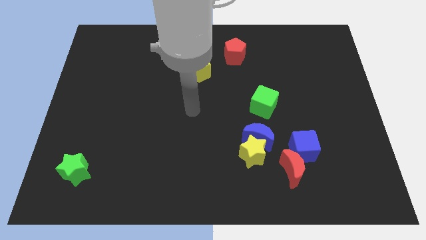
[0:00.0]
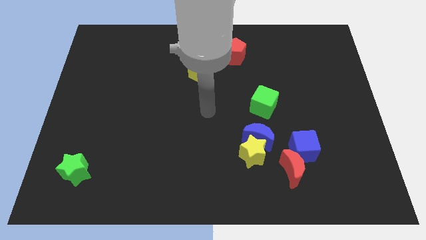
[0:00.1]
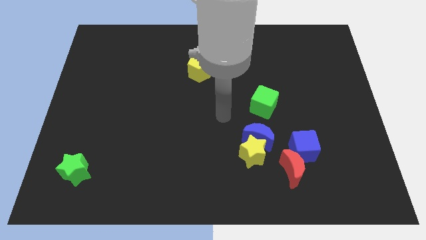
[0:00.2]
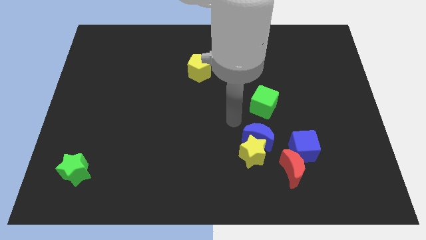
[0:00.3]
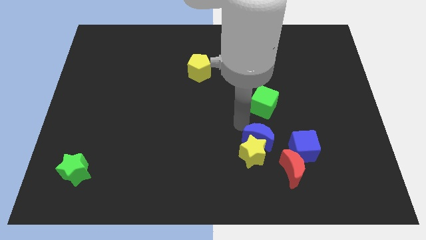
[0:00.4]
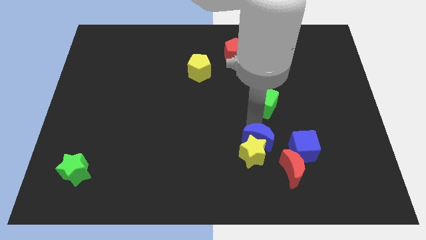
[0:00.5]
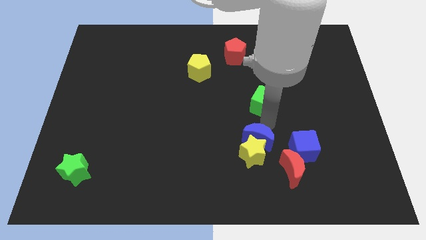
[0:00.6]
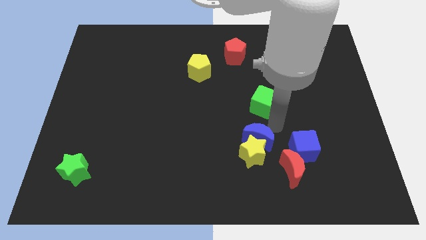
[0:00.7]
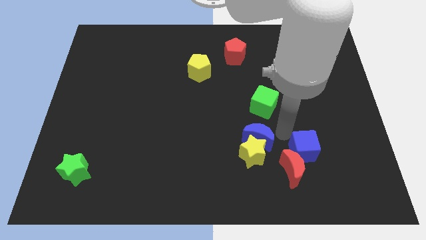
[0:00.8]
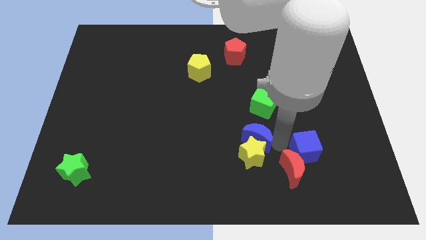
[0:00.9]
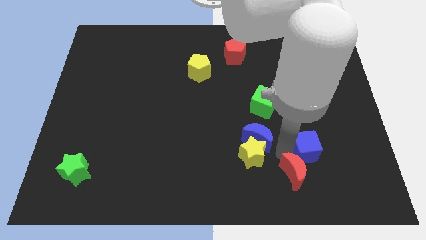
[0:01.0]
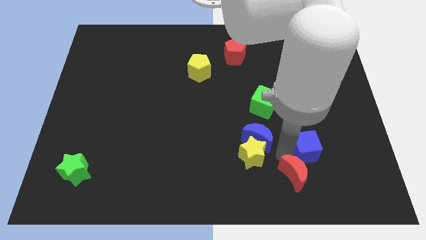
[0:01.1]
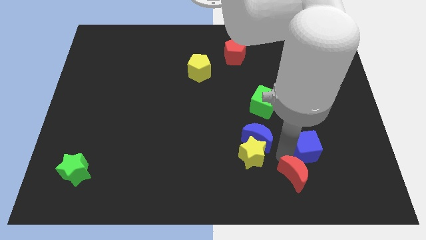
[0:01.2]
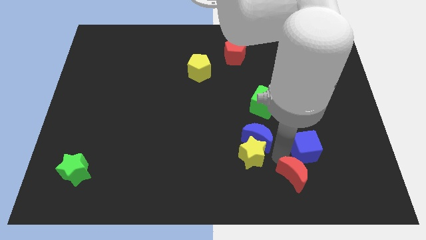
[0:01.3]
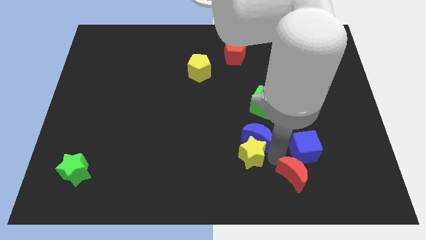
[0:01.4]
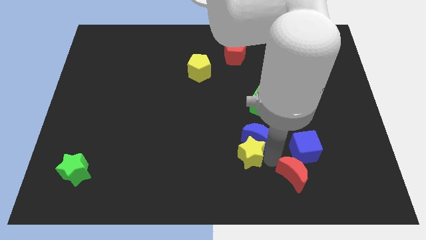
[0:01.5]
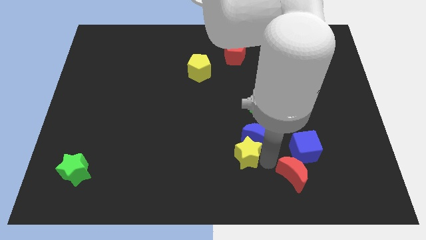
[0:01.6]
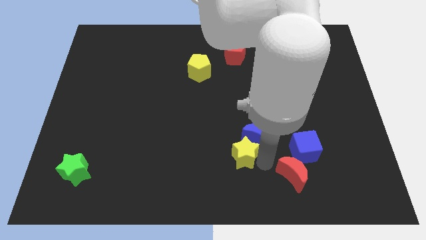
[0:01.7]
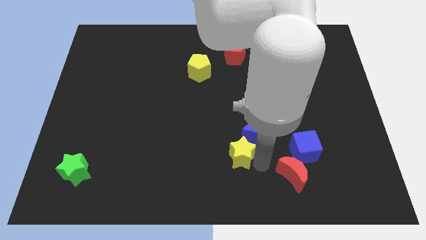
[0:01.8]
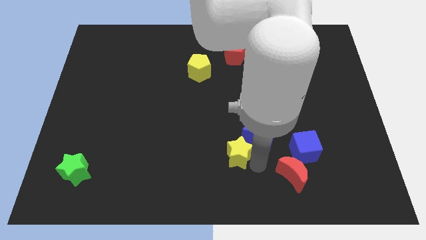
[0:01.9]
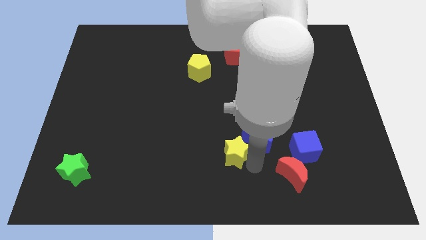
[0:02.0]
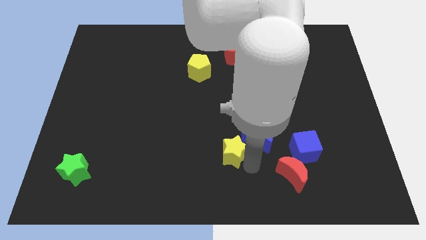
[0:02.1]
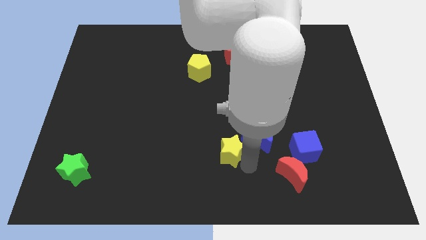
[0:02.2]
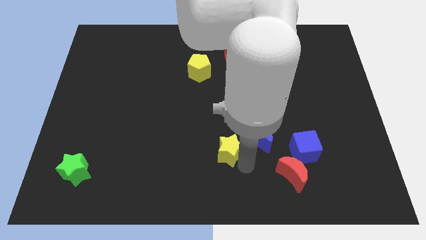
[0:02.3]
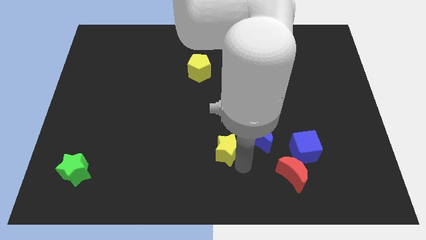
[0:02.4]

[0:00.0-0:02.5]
pull the yellow star apart from the blue moon and red moon

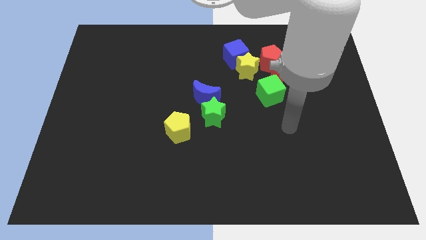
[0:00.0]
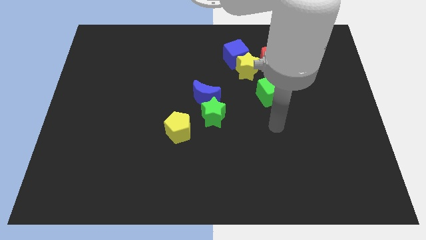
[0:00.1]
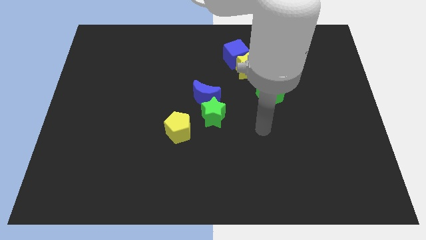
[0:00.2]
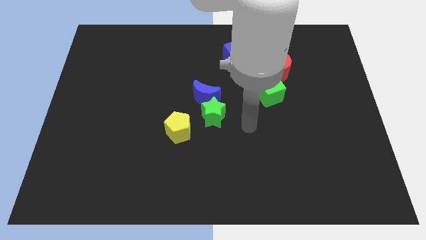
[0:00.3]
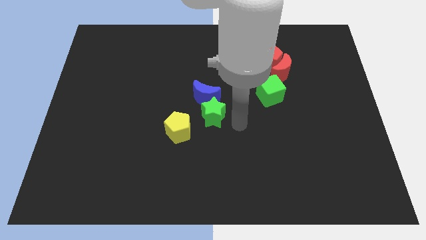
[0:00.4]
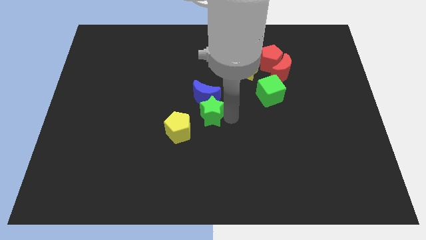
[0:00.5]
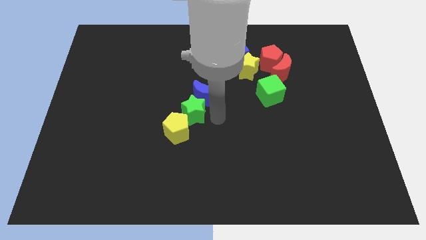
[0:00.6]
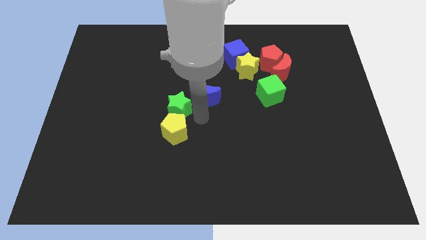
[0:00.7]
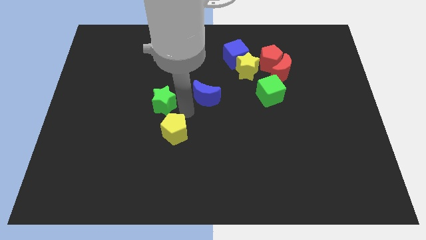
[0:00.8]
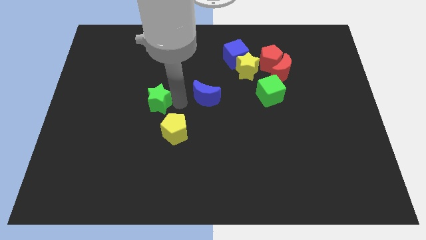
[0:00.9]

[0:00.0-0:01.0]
separate the blue moon from the green star

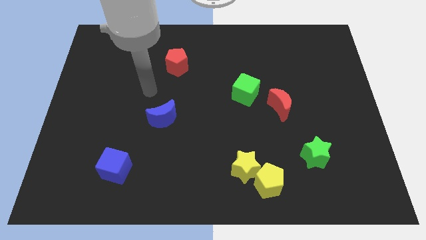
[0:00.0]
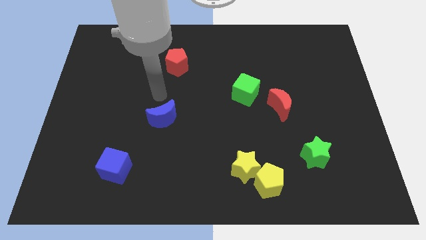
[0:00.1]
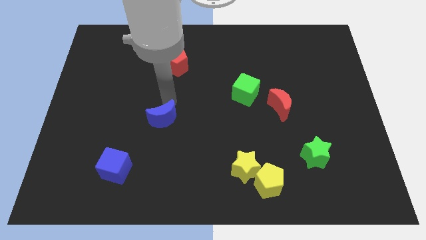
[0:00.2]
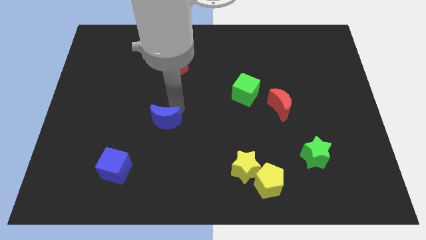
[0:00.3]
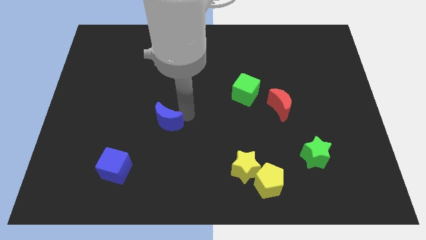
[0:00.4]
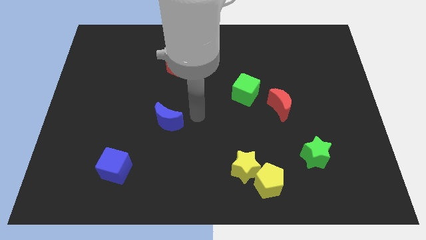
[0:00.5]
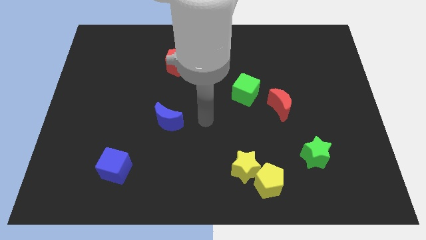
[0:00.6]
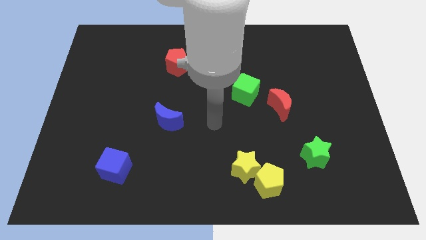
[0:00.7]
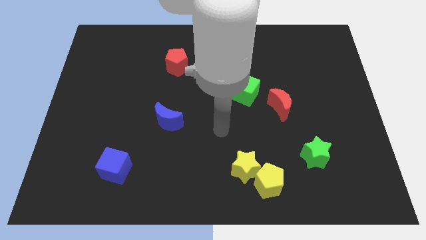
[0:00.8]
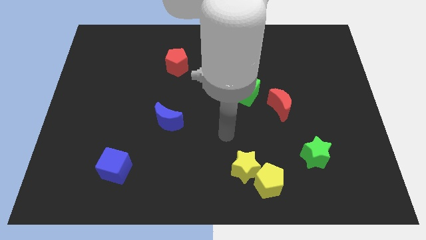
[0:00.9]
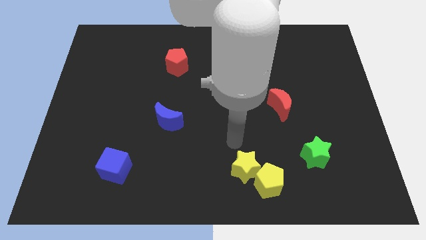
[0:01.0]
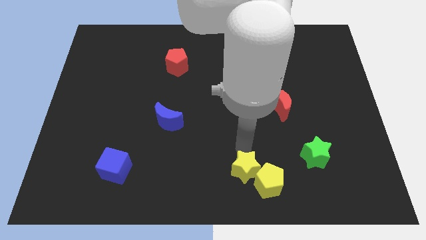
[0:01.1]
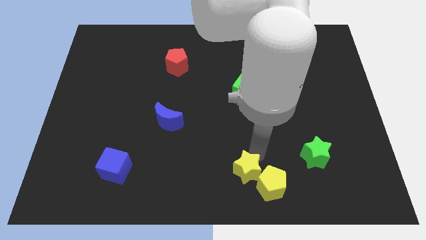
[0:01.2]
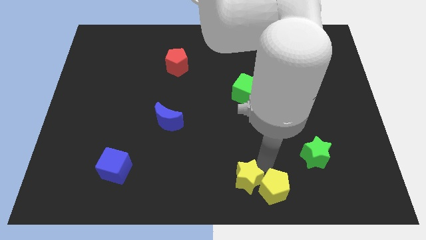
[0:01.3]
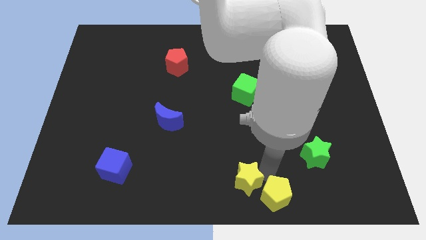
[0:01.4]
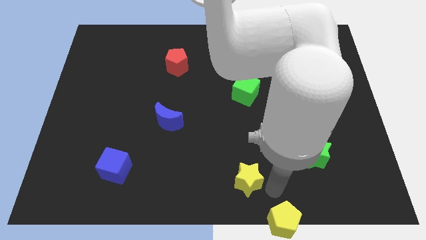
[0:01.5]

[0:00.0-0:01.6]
separate the yellow star from the yellow pentagon

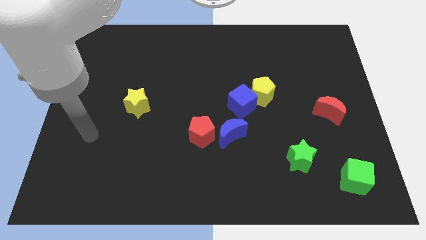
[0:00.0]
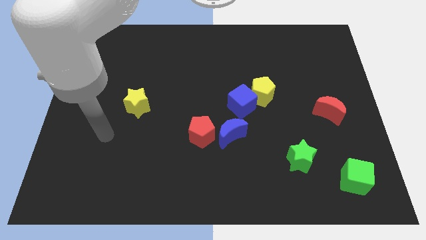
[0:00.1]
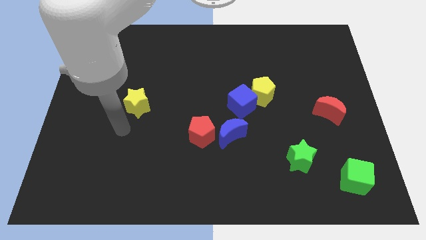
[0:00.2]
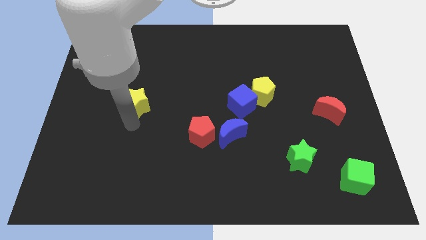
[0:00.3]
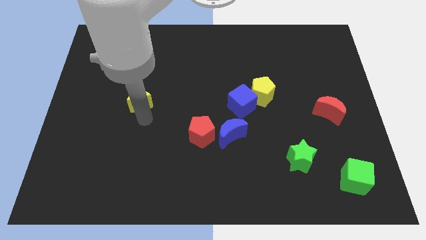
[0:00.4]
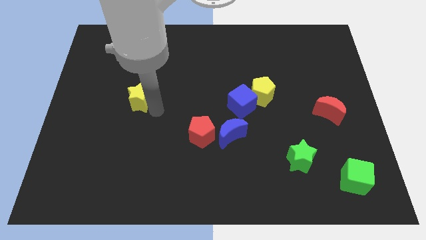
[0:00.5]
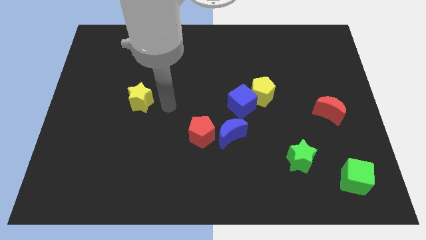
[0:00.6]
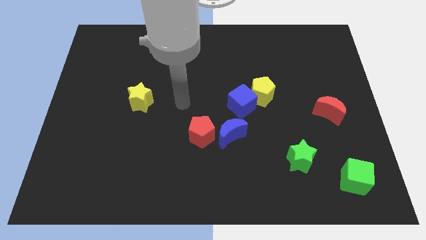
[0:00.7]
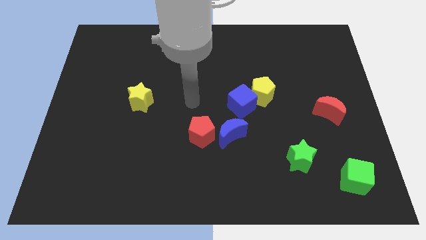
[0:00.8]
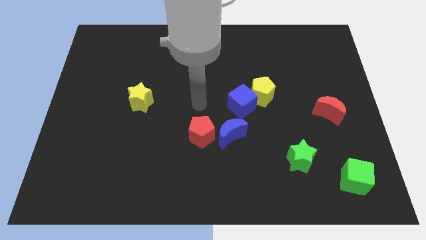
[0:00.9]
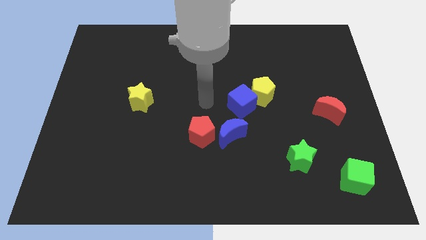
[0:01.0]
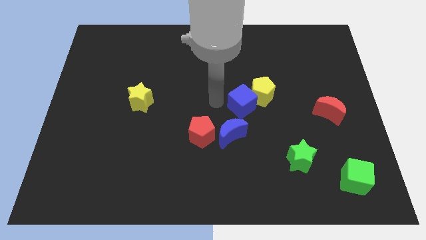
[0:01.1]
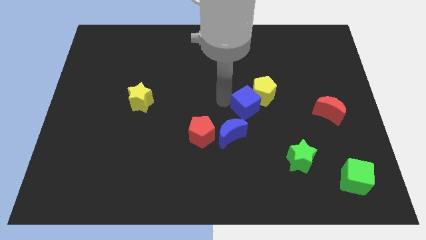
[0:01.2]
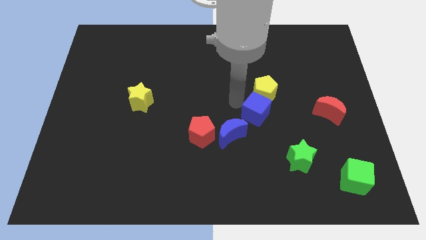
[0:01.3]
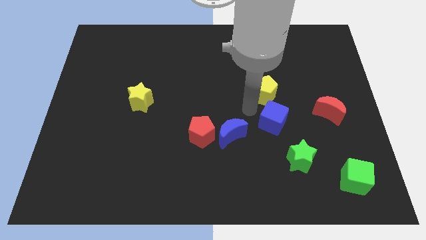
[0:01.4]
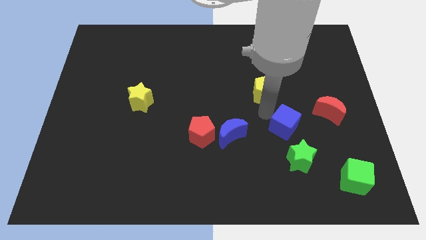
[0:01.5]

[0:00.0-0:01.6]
move the yellow pentagon away from the blue cube

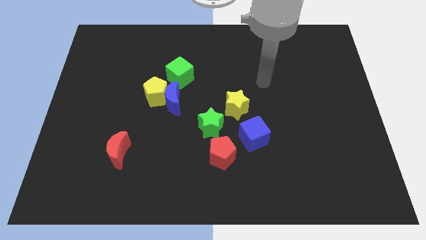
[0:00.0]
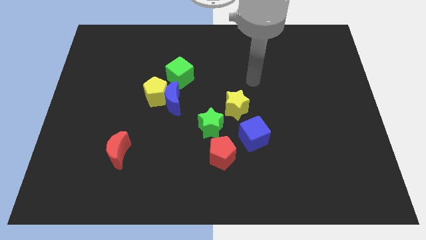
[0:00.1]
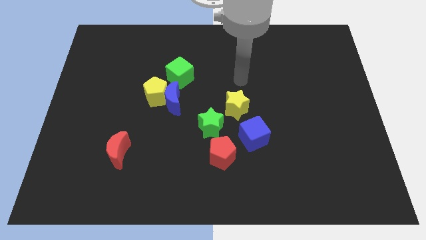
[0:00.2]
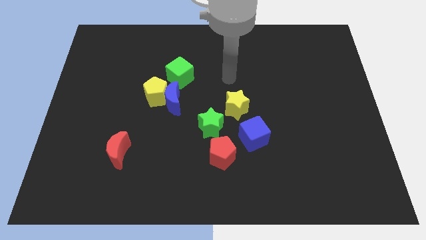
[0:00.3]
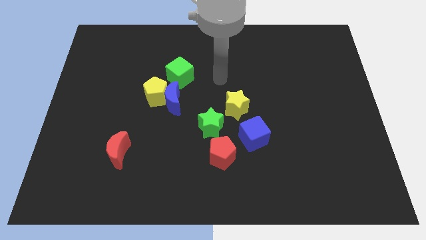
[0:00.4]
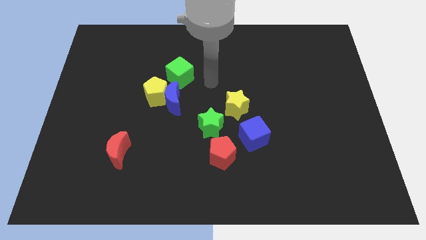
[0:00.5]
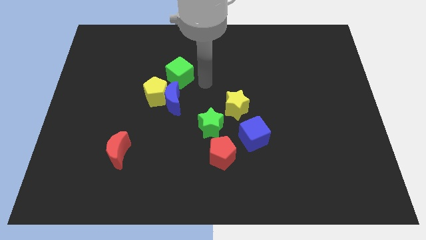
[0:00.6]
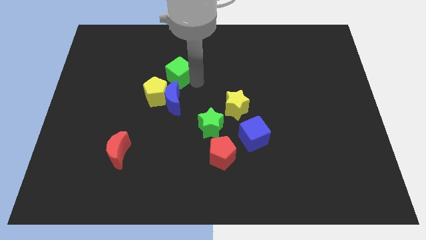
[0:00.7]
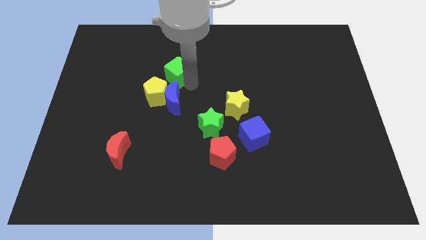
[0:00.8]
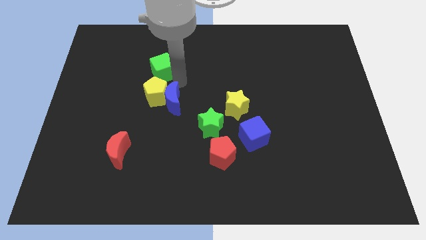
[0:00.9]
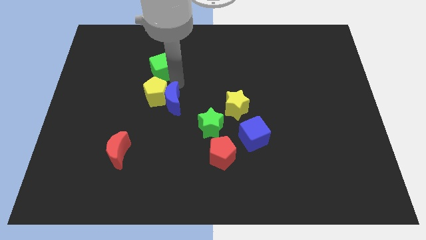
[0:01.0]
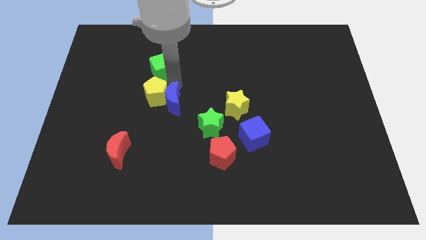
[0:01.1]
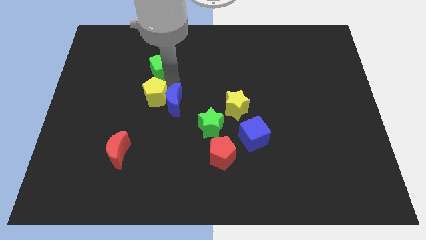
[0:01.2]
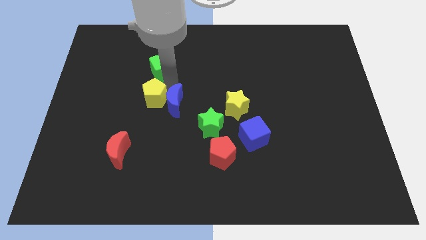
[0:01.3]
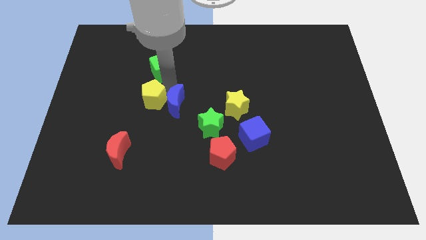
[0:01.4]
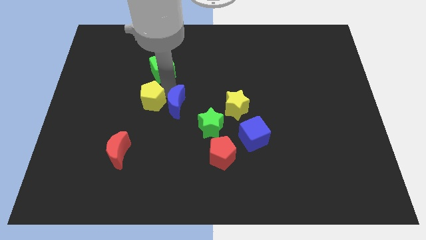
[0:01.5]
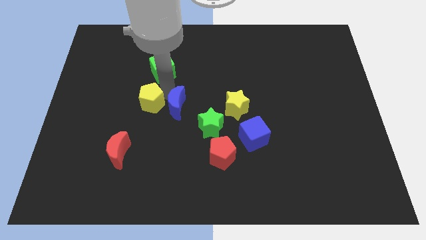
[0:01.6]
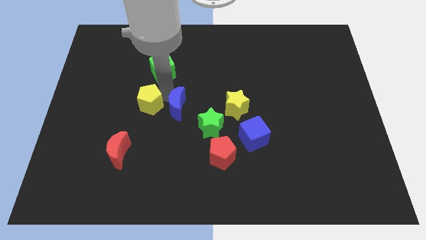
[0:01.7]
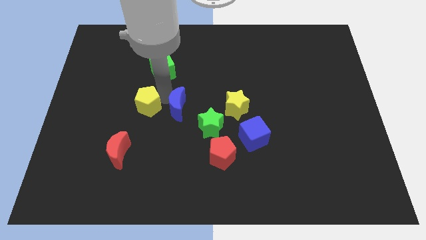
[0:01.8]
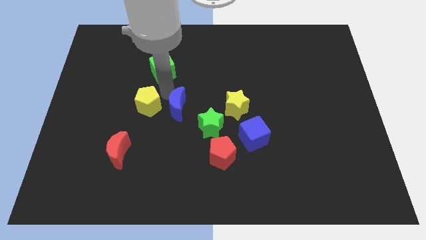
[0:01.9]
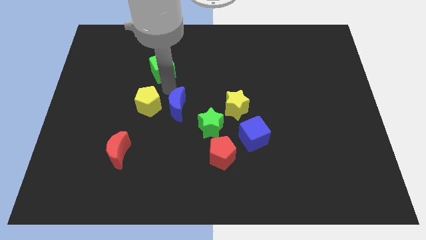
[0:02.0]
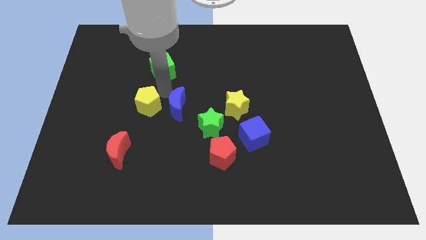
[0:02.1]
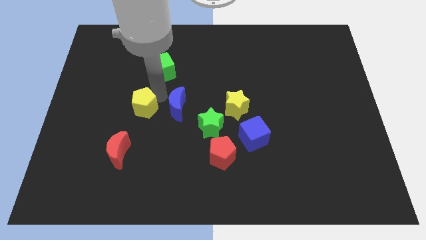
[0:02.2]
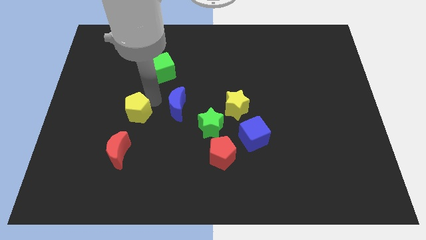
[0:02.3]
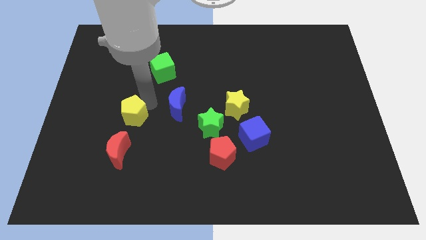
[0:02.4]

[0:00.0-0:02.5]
move the yellow pentagon away from the blue moon and green cube
